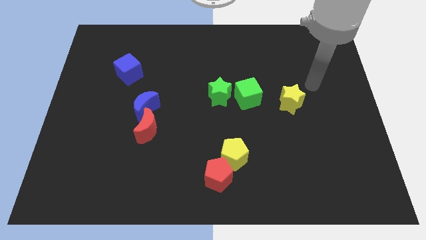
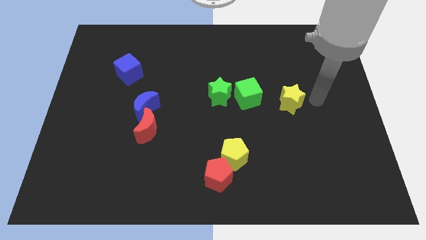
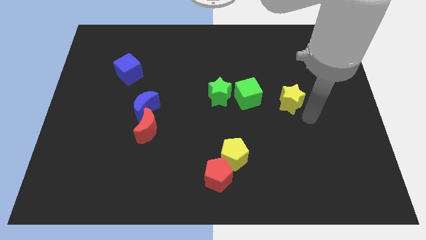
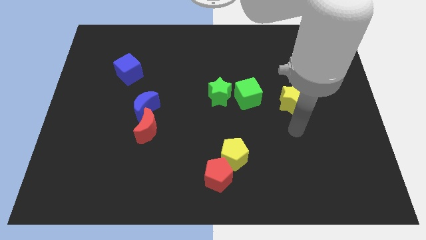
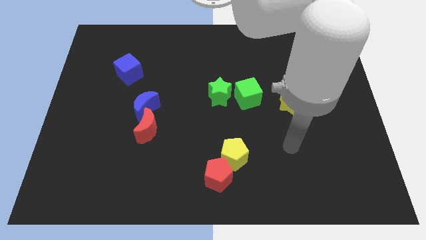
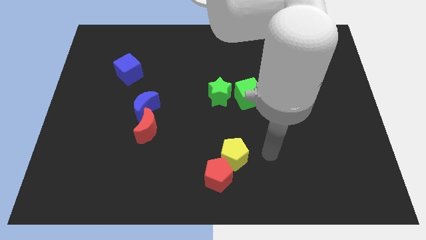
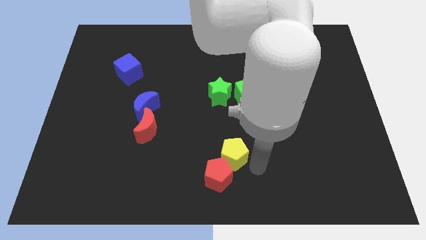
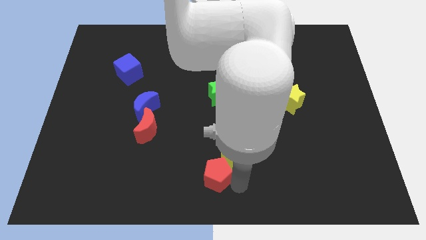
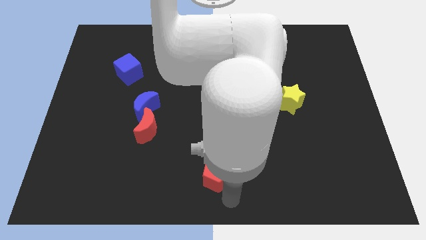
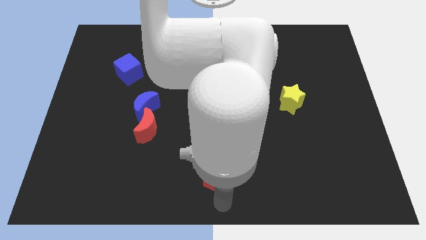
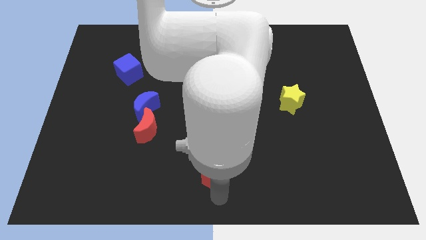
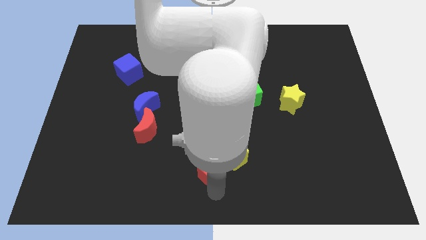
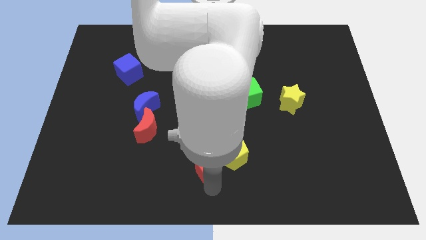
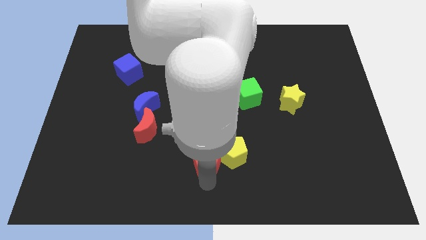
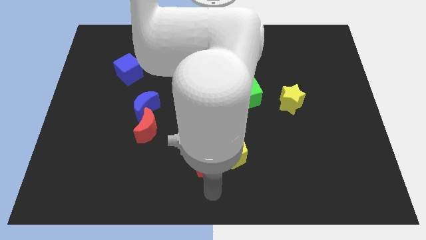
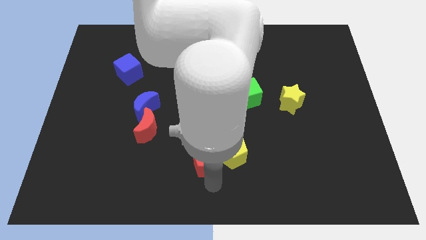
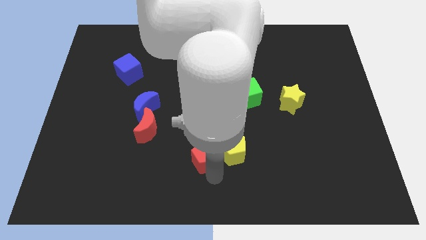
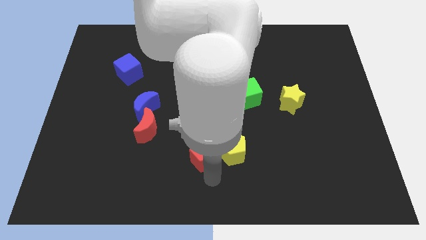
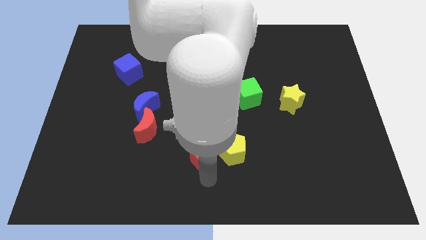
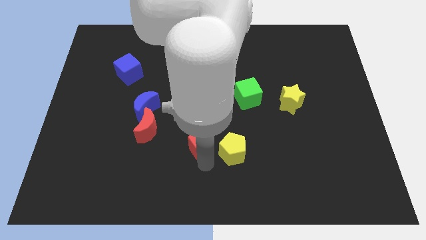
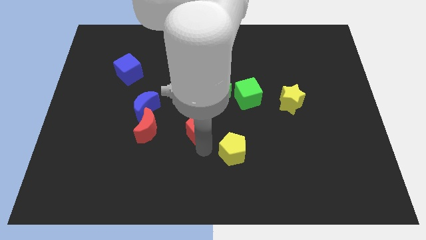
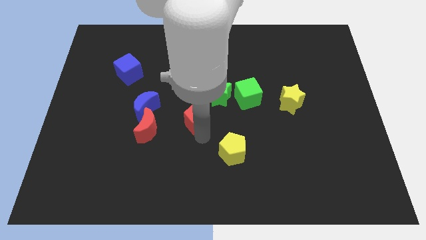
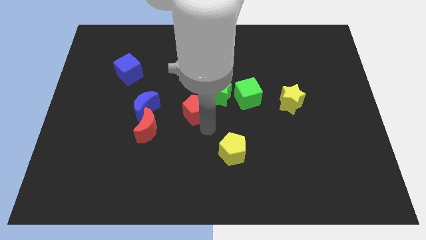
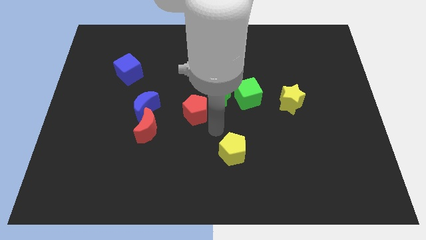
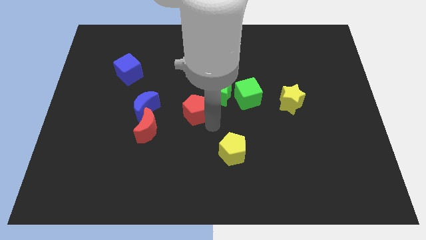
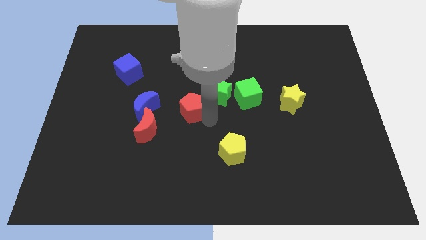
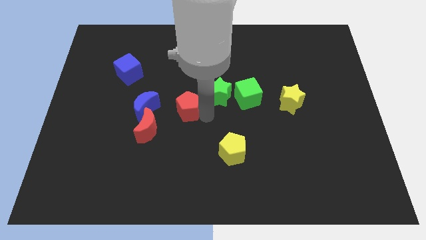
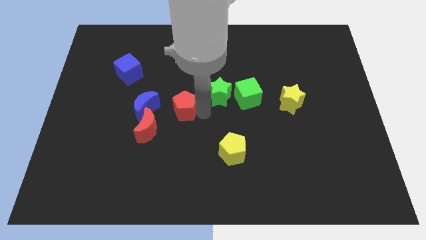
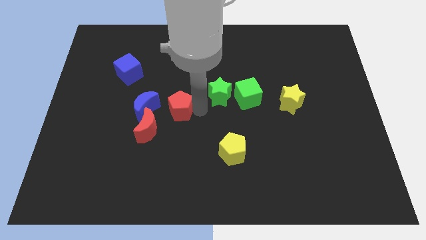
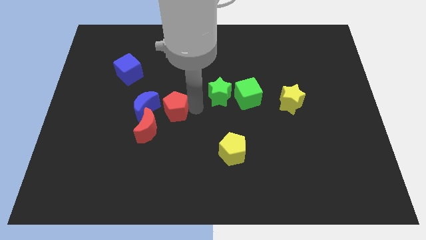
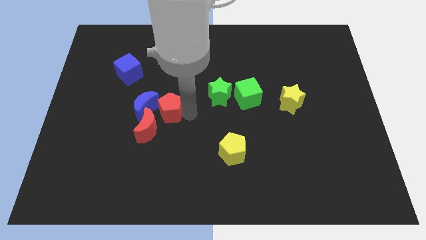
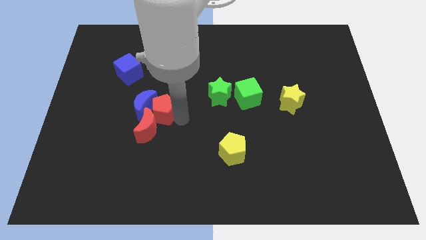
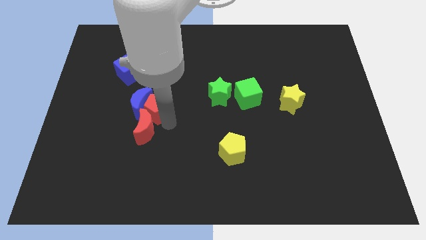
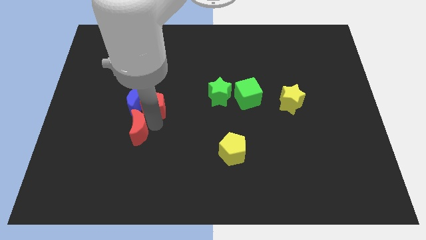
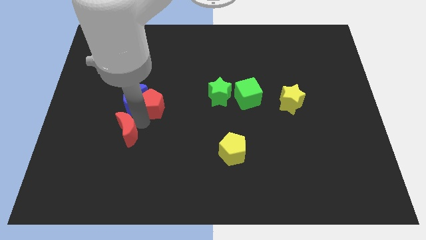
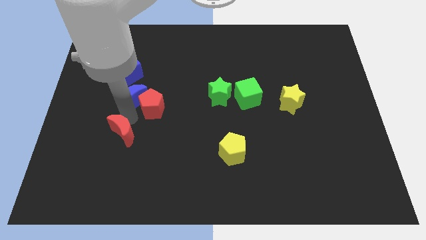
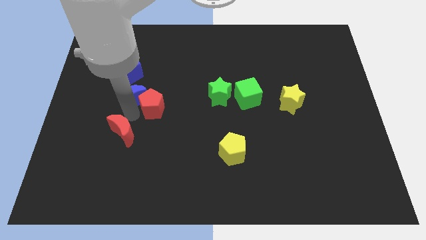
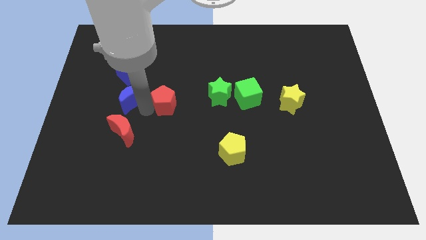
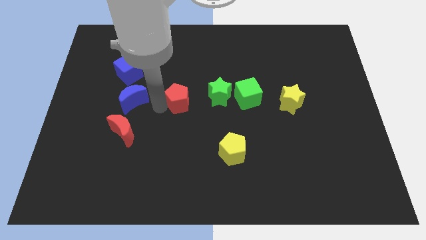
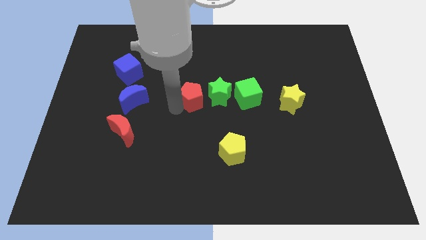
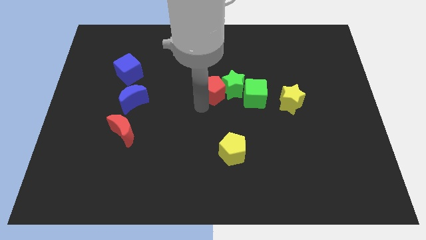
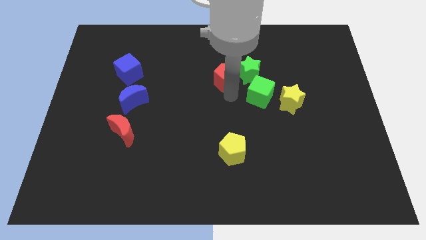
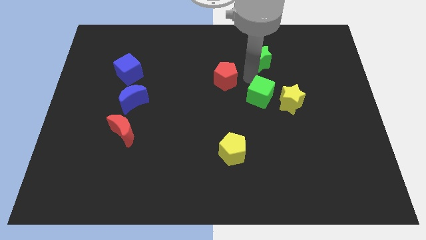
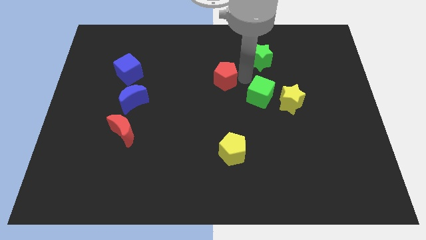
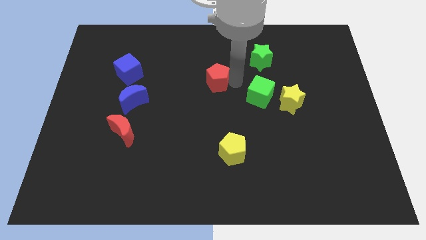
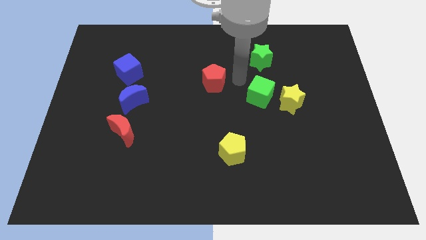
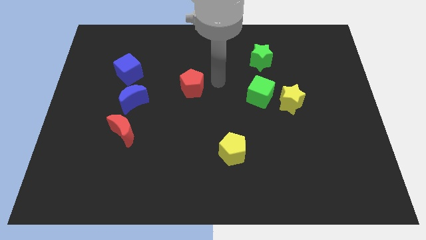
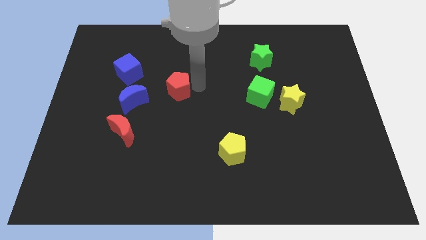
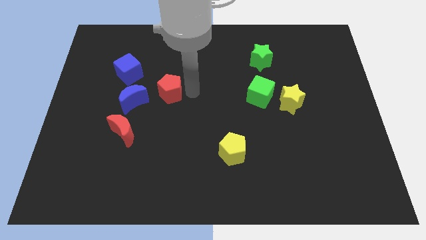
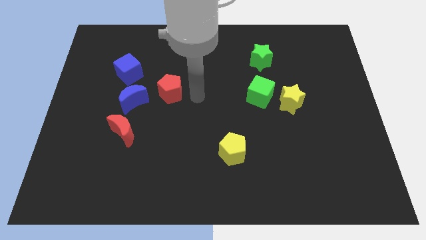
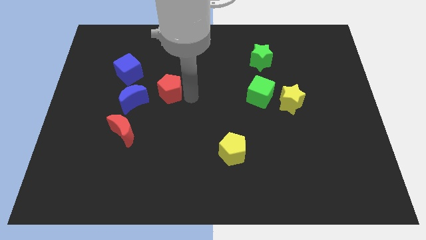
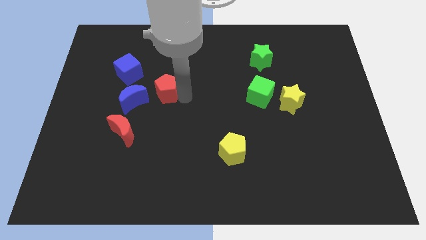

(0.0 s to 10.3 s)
put the red pentagon to the bottom right of the blue cube

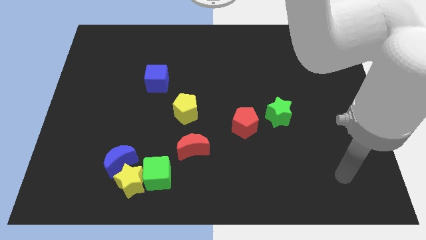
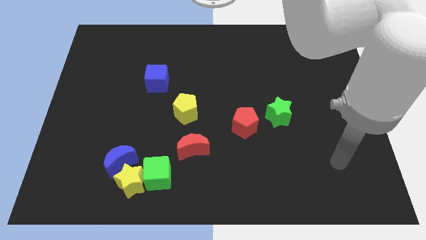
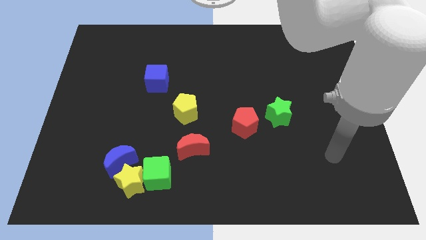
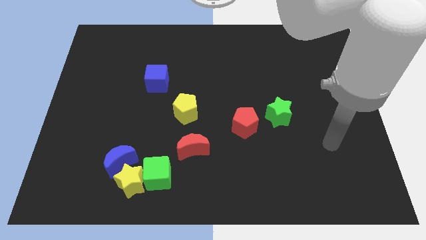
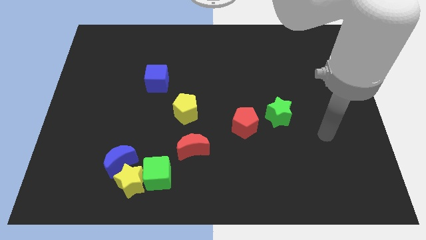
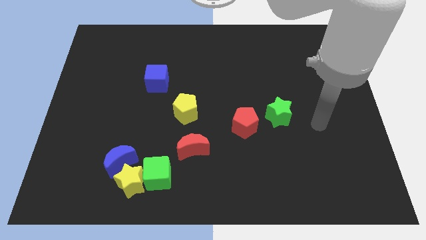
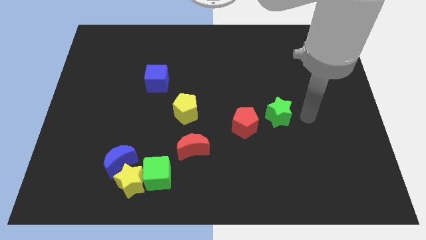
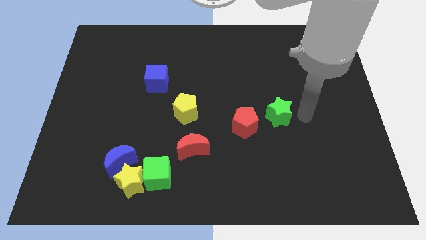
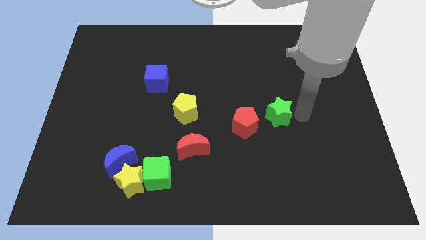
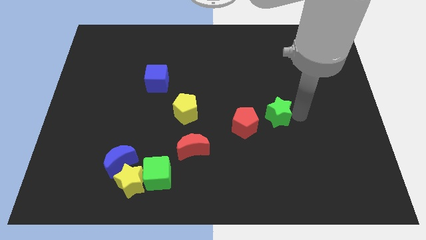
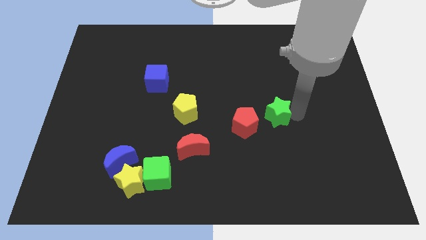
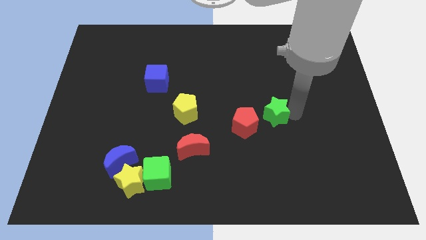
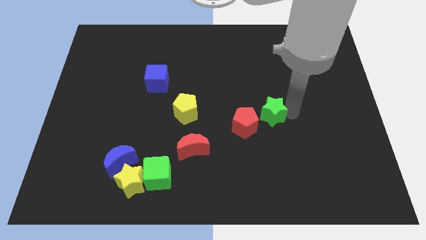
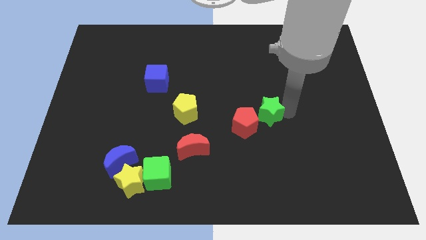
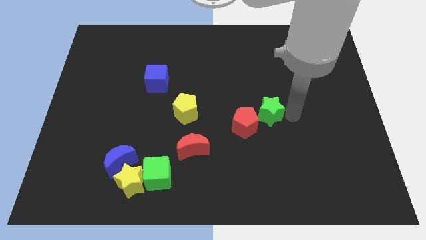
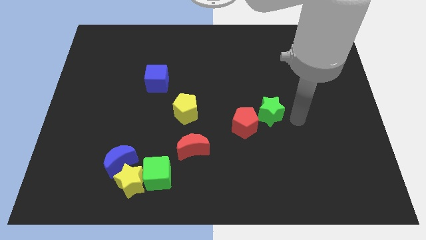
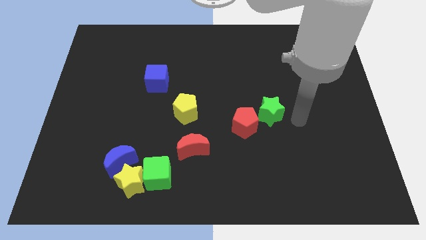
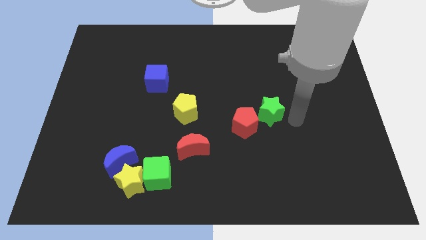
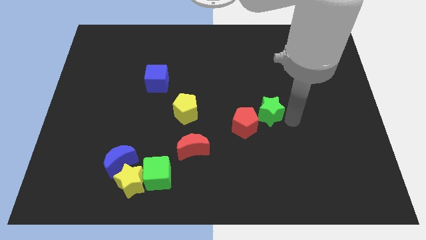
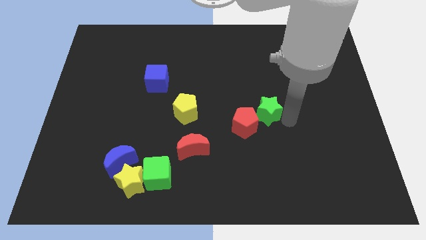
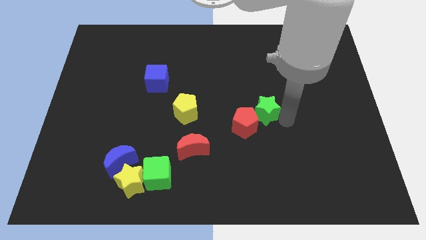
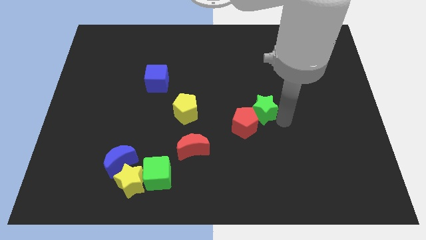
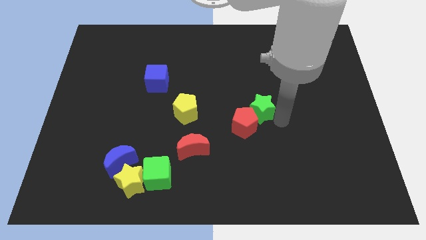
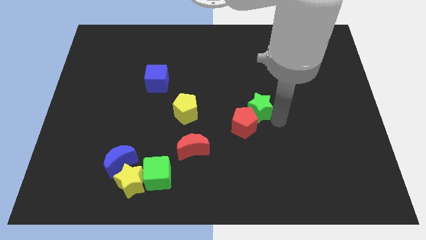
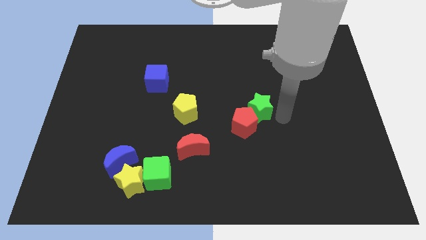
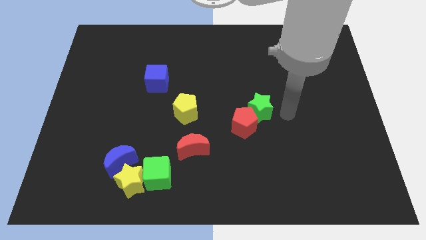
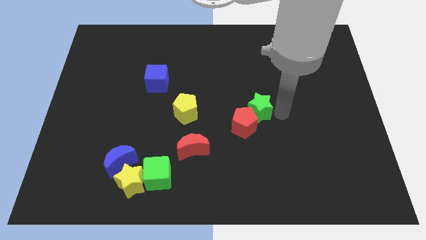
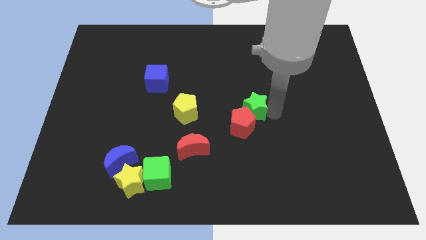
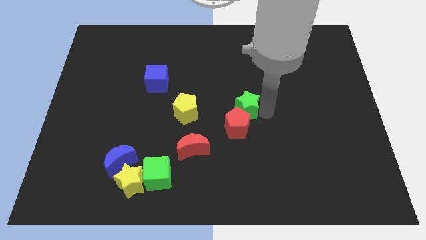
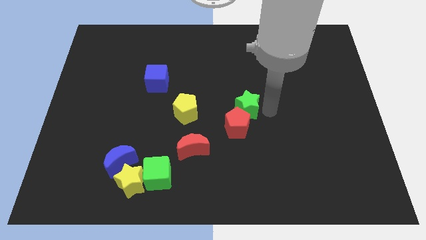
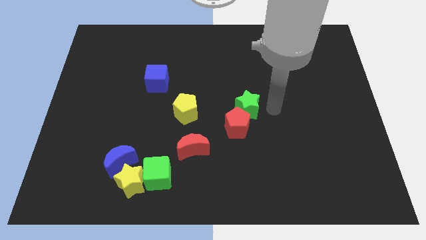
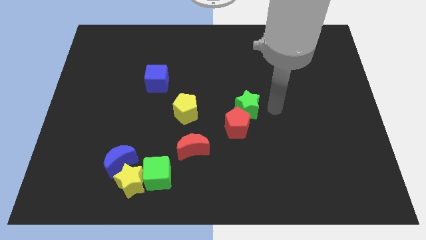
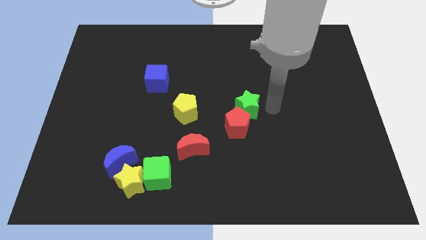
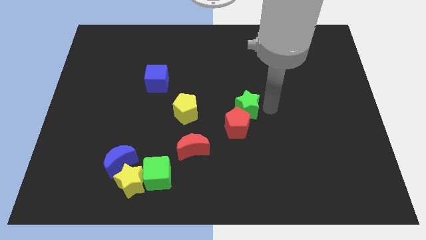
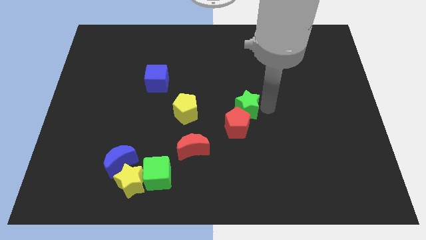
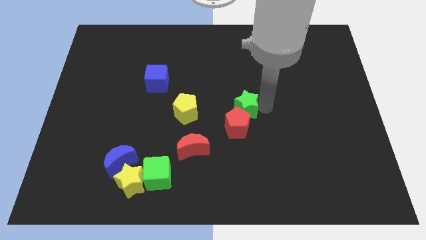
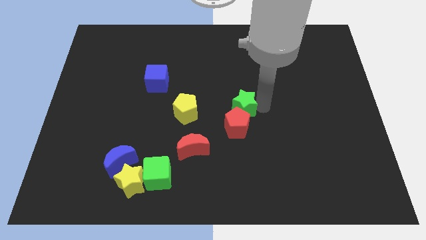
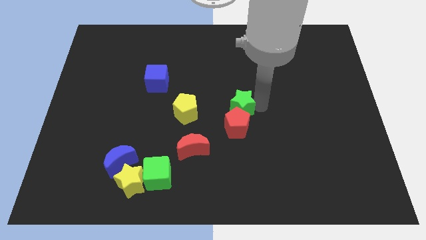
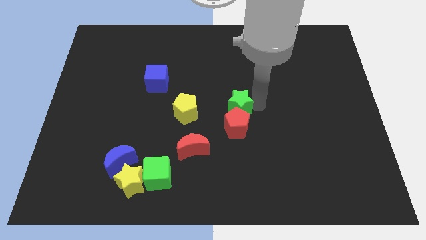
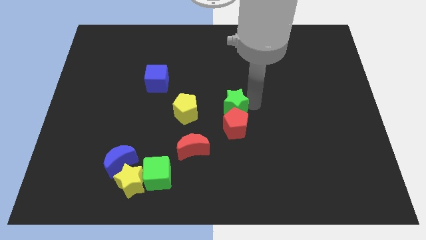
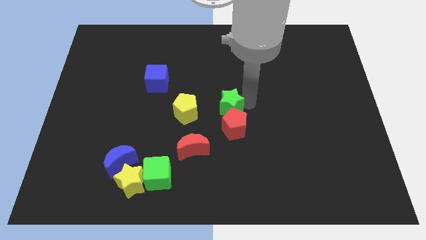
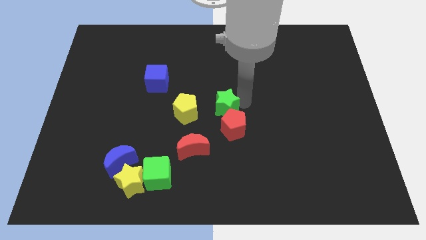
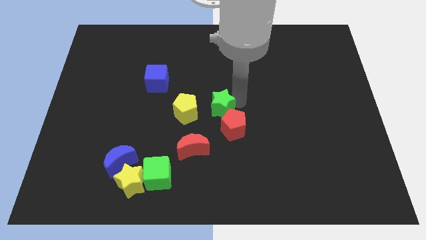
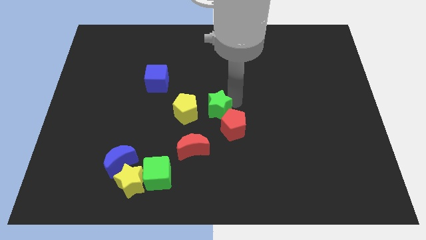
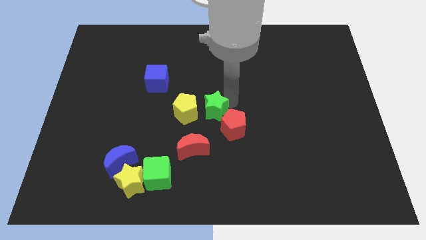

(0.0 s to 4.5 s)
put the green star just left of the red pentagon
